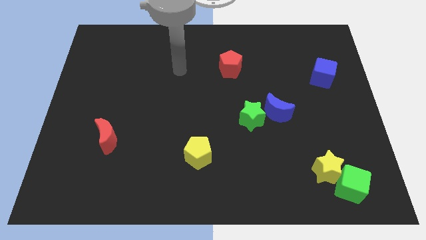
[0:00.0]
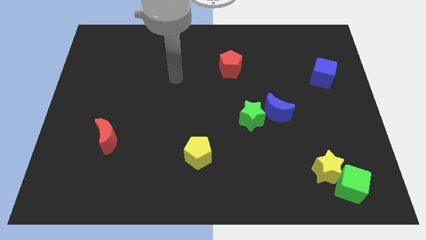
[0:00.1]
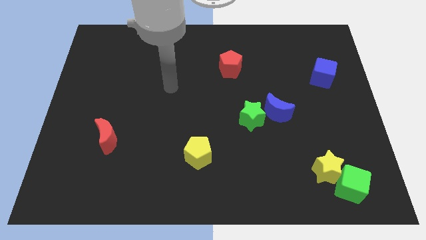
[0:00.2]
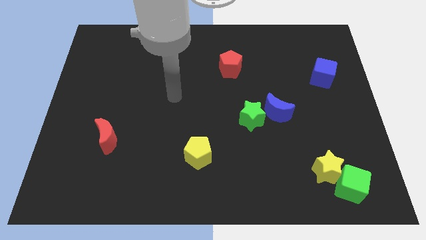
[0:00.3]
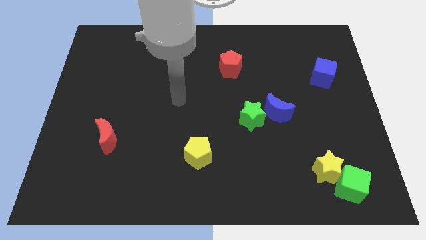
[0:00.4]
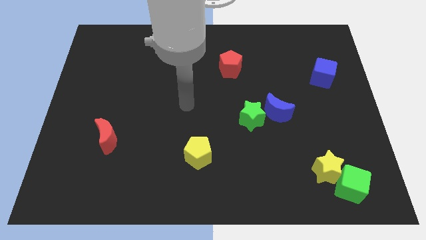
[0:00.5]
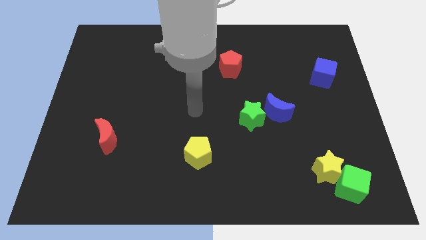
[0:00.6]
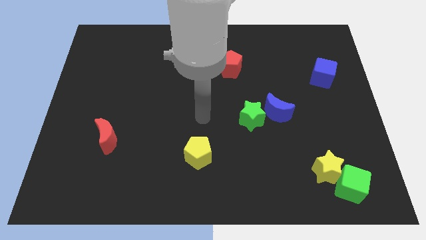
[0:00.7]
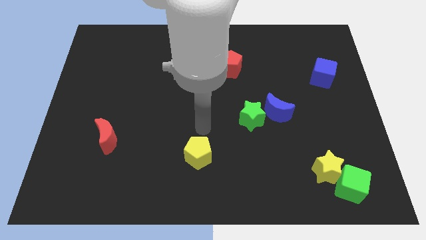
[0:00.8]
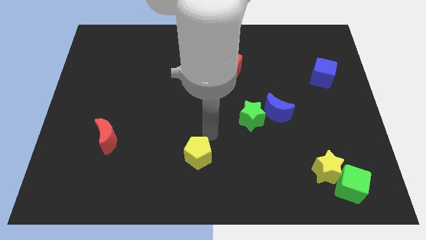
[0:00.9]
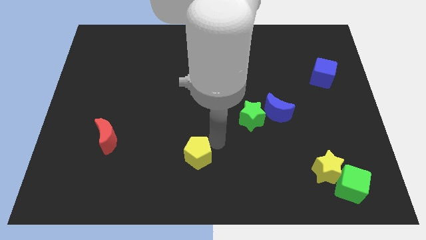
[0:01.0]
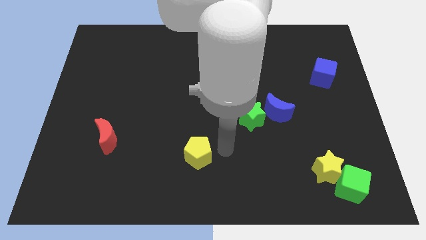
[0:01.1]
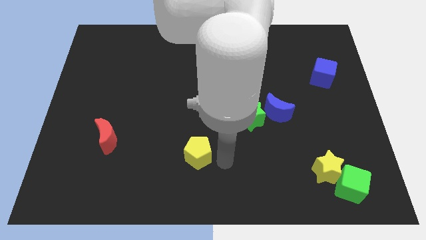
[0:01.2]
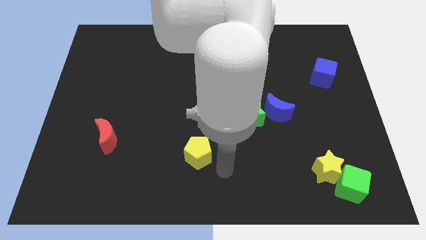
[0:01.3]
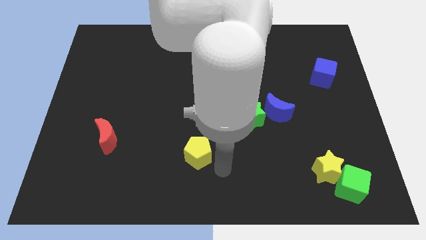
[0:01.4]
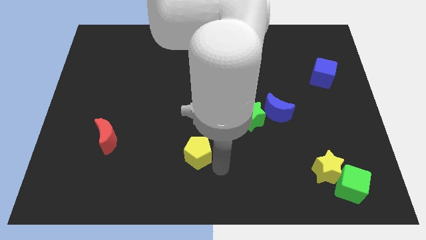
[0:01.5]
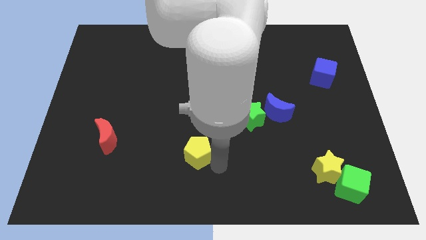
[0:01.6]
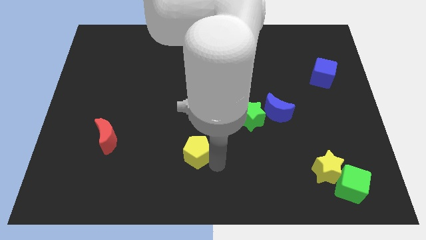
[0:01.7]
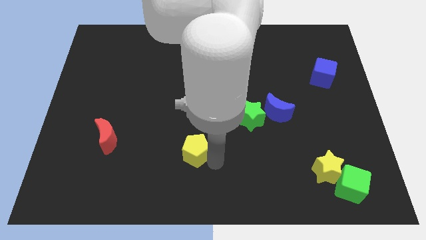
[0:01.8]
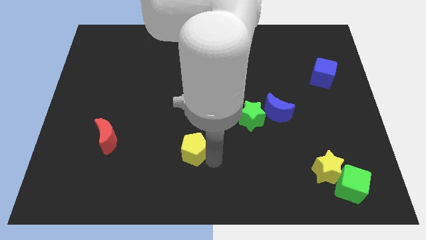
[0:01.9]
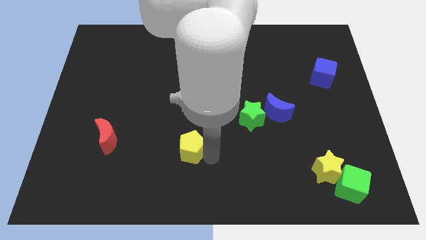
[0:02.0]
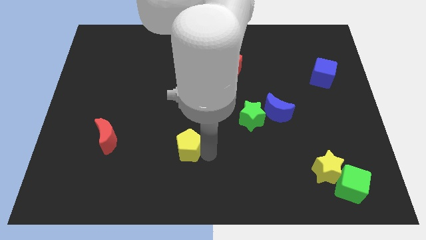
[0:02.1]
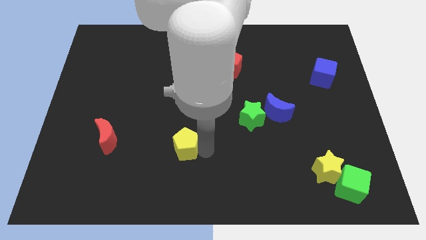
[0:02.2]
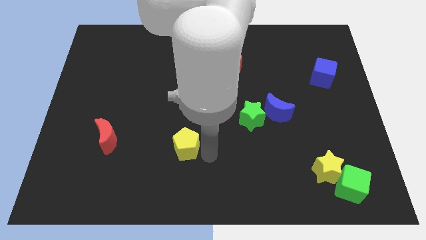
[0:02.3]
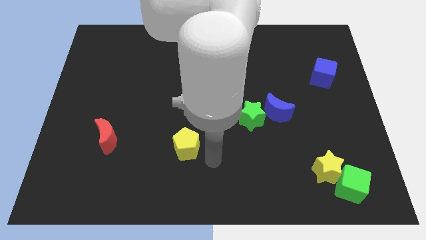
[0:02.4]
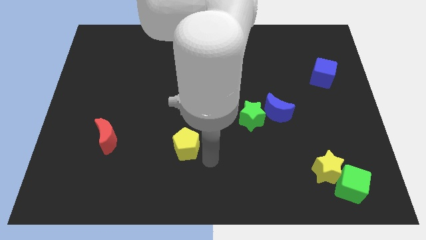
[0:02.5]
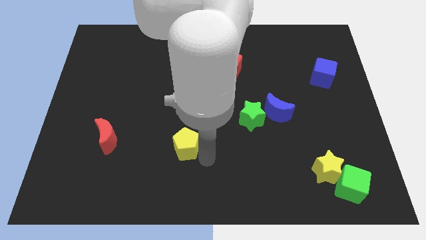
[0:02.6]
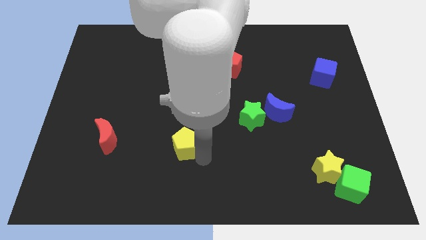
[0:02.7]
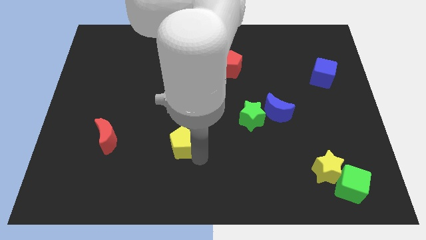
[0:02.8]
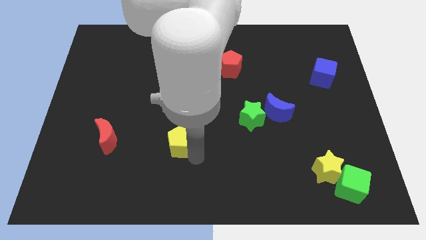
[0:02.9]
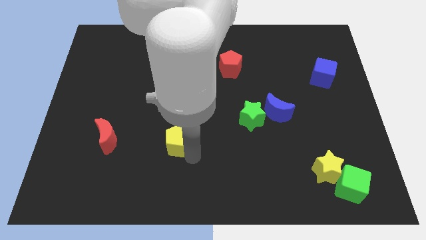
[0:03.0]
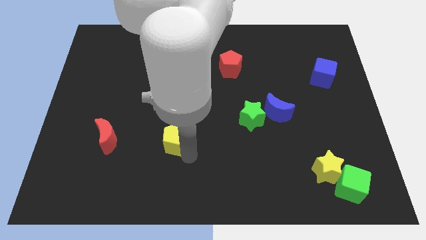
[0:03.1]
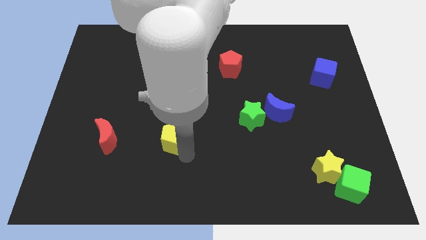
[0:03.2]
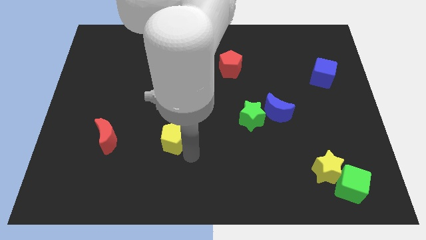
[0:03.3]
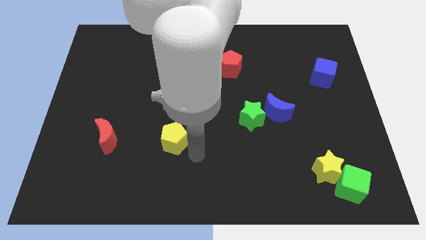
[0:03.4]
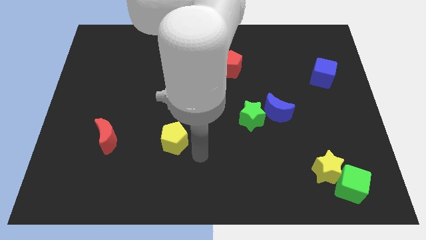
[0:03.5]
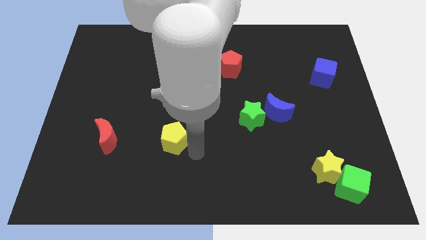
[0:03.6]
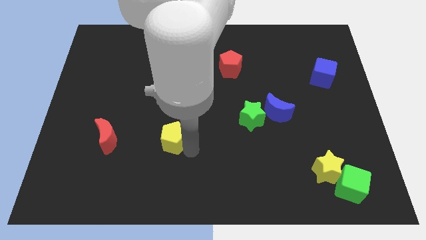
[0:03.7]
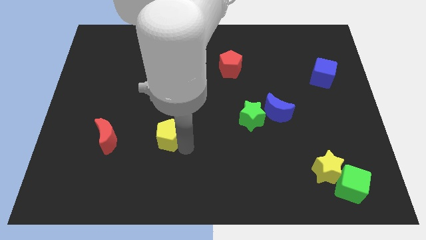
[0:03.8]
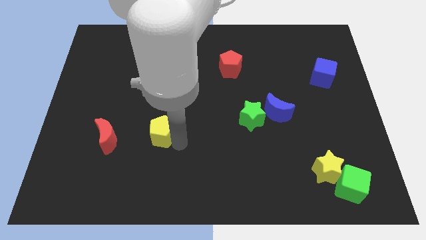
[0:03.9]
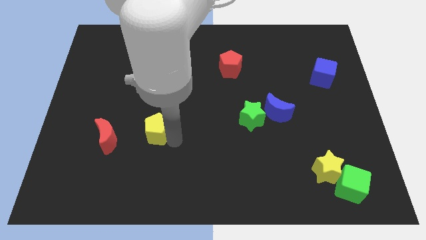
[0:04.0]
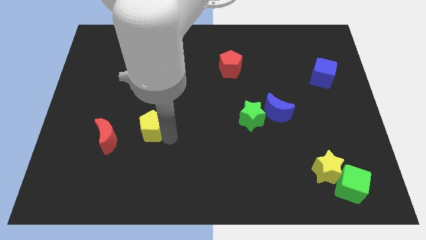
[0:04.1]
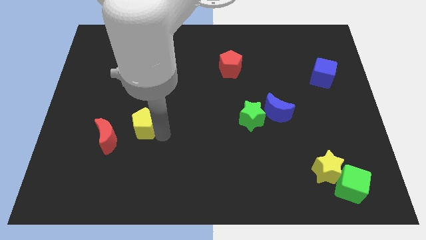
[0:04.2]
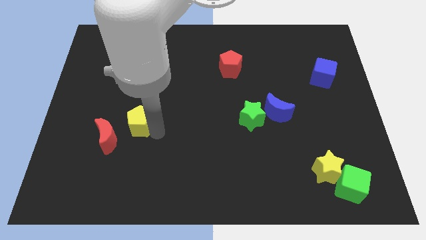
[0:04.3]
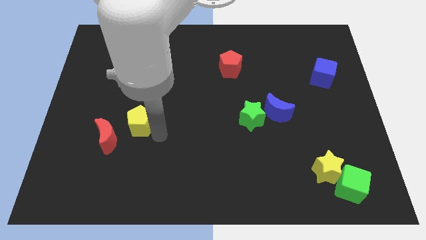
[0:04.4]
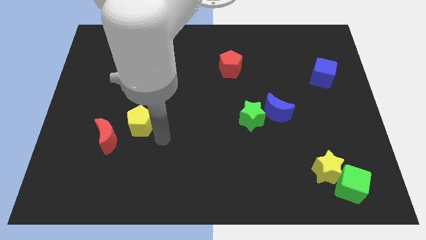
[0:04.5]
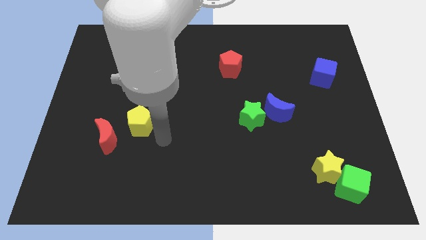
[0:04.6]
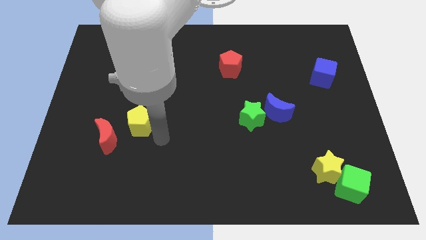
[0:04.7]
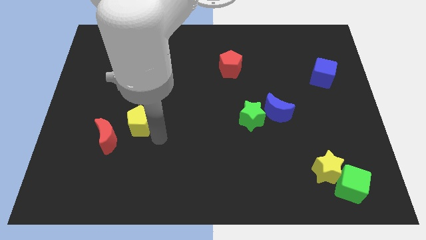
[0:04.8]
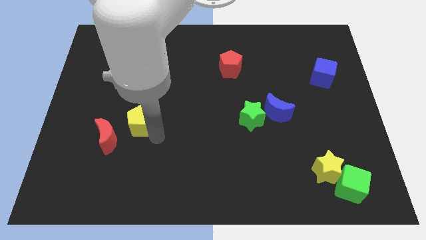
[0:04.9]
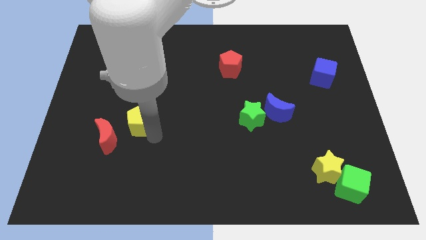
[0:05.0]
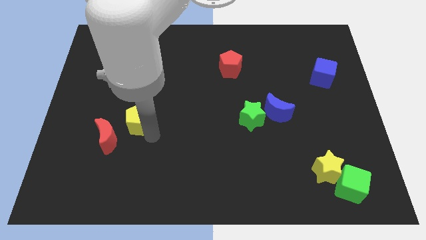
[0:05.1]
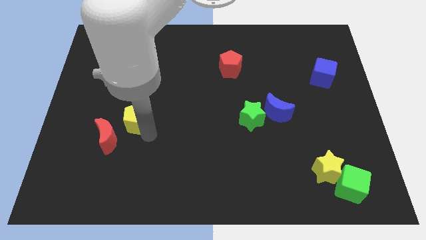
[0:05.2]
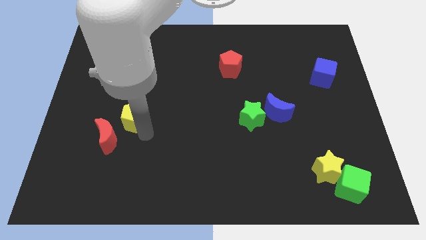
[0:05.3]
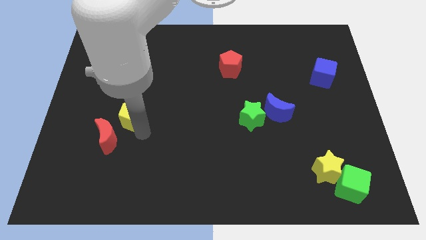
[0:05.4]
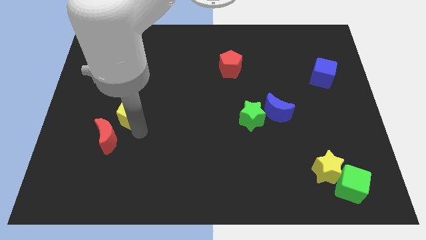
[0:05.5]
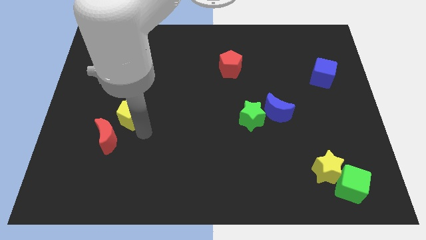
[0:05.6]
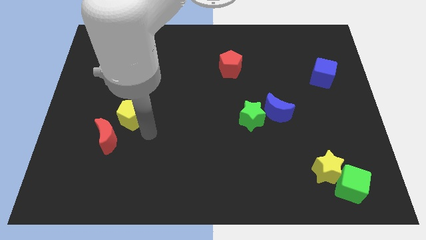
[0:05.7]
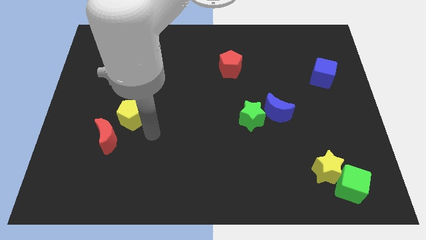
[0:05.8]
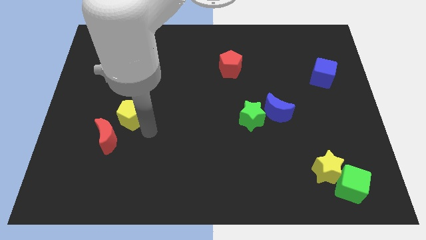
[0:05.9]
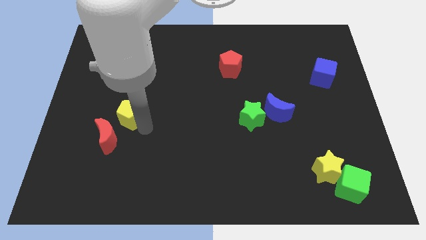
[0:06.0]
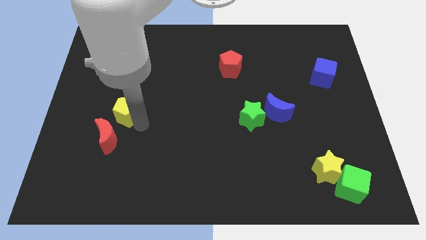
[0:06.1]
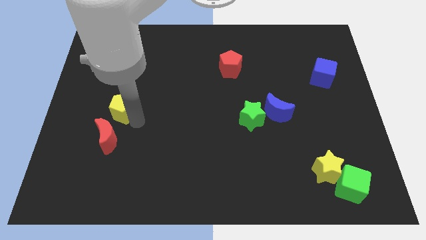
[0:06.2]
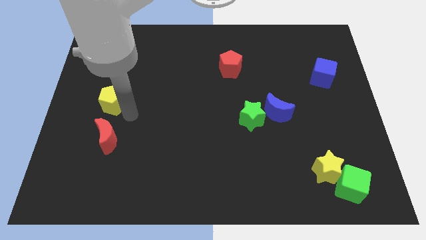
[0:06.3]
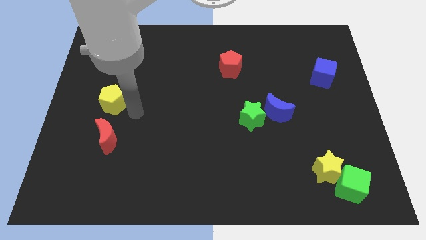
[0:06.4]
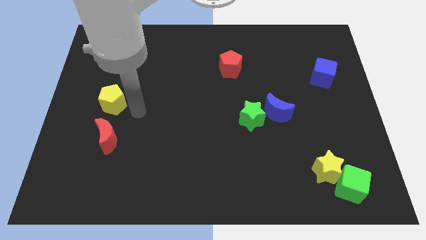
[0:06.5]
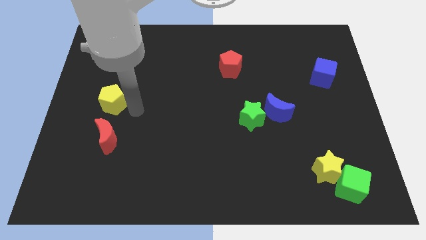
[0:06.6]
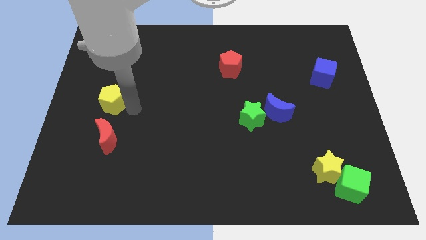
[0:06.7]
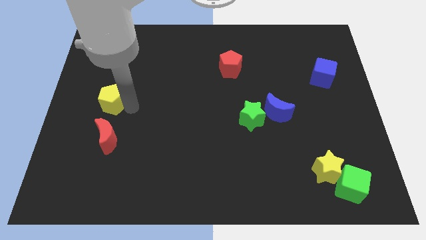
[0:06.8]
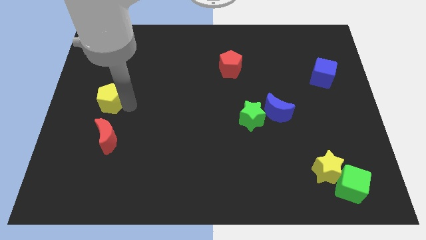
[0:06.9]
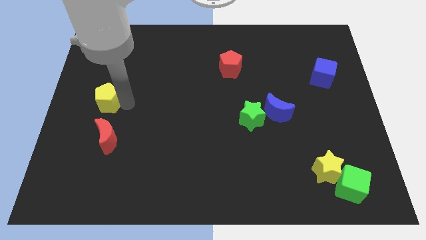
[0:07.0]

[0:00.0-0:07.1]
slide the yellow pentagon to the left side of the board
